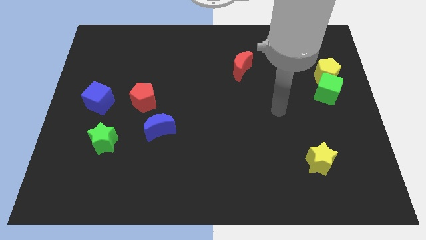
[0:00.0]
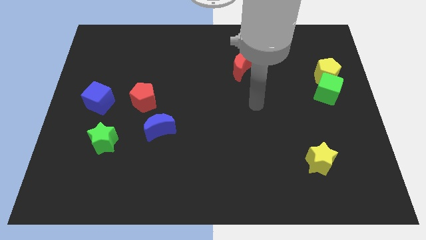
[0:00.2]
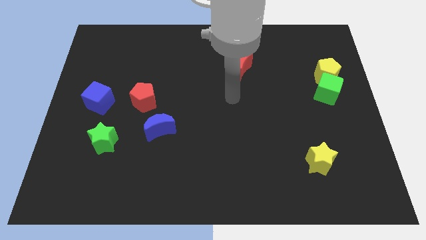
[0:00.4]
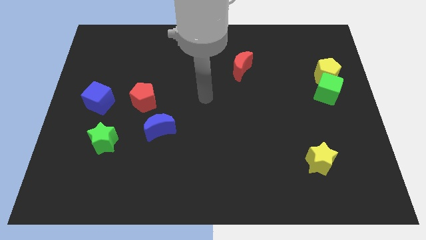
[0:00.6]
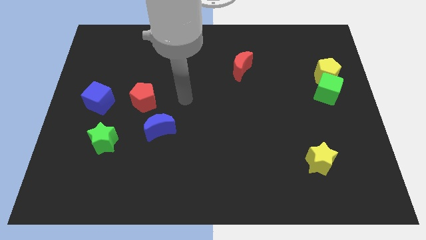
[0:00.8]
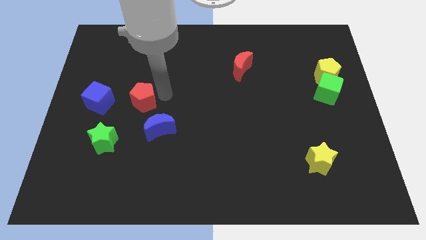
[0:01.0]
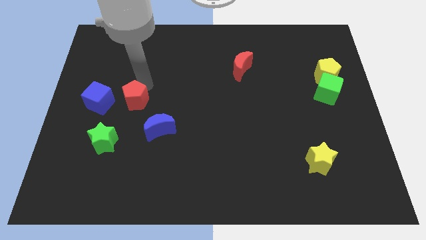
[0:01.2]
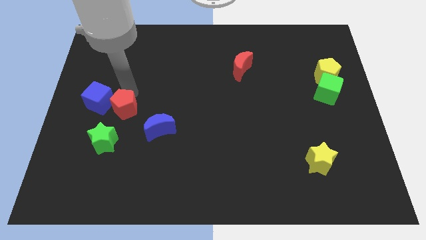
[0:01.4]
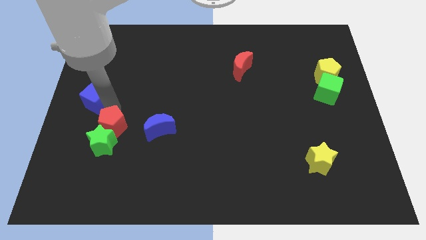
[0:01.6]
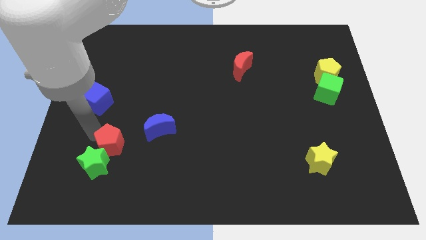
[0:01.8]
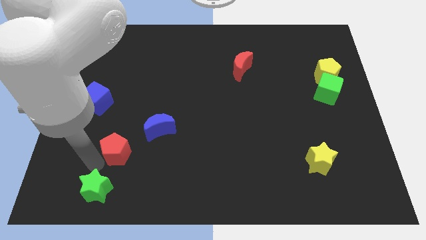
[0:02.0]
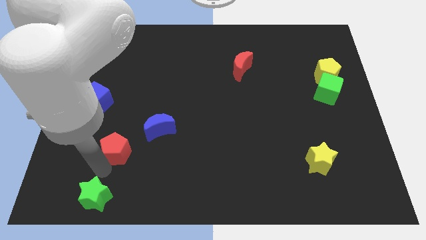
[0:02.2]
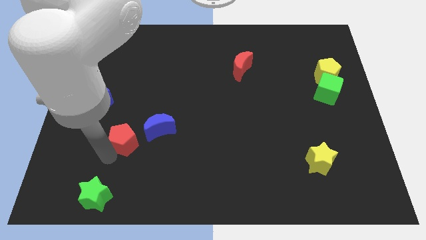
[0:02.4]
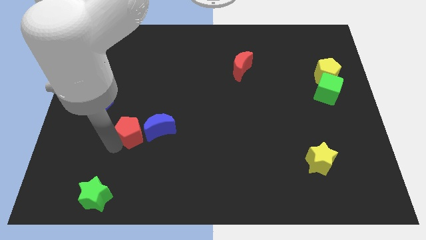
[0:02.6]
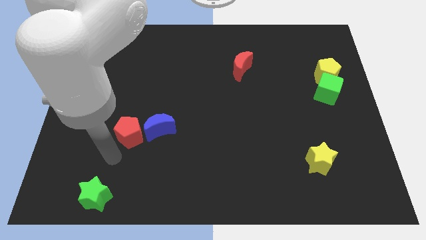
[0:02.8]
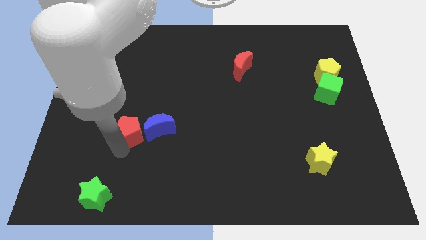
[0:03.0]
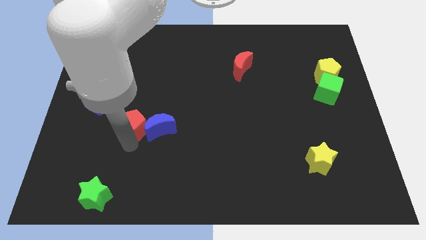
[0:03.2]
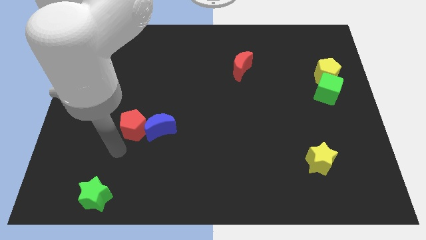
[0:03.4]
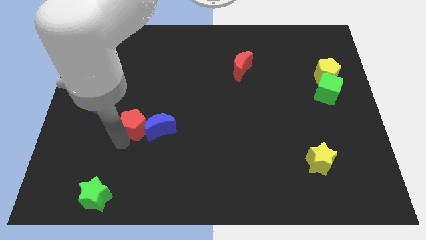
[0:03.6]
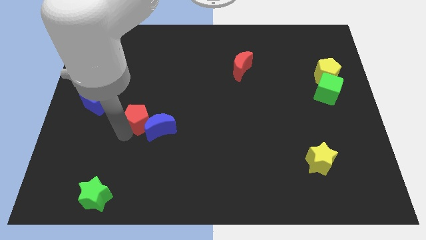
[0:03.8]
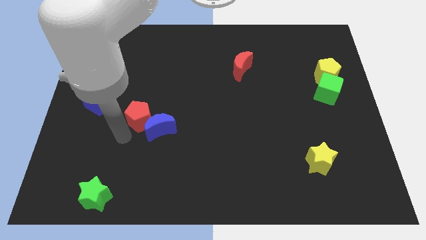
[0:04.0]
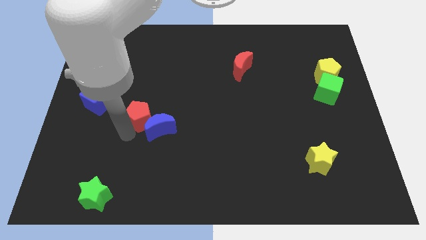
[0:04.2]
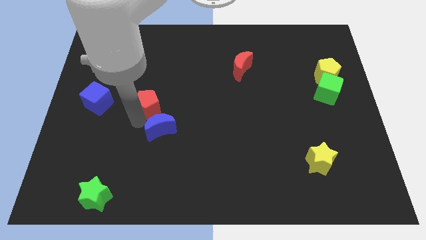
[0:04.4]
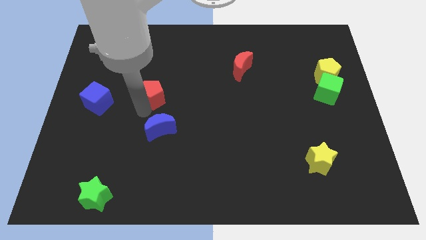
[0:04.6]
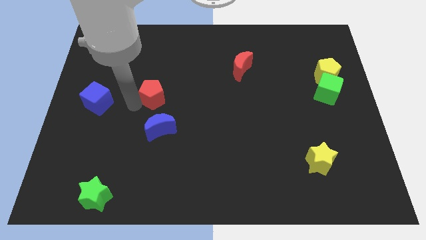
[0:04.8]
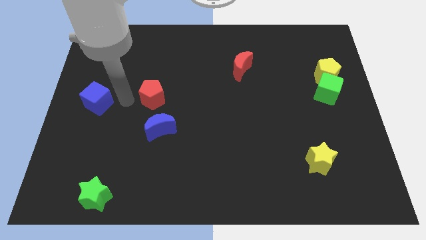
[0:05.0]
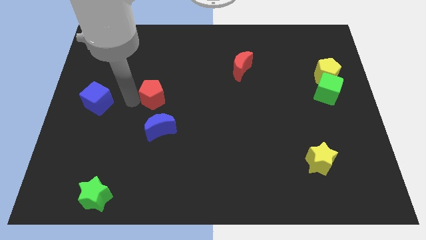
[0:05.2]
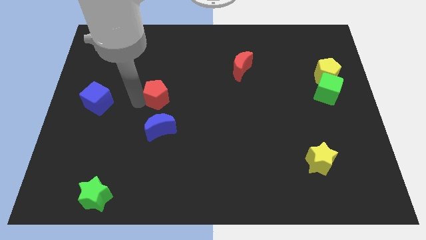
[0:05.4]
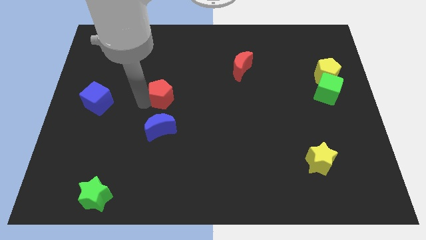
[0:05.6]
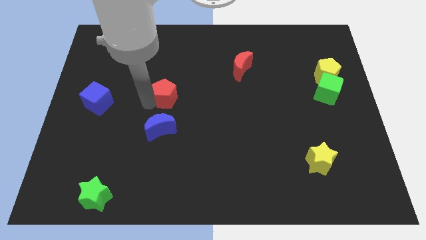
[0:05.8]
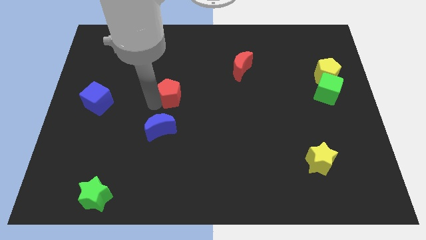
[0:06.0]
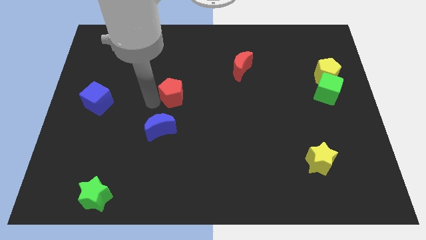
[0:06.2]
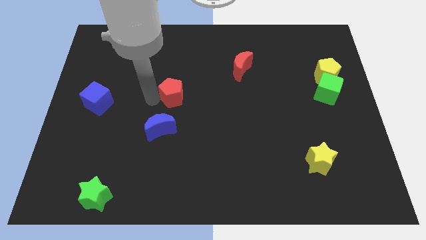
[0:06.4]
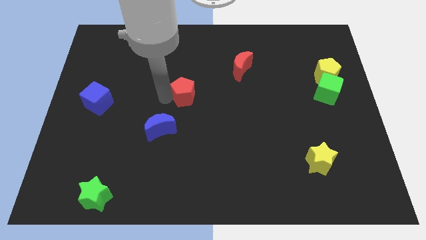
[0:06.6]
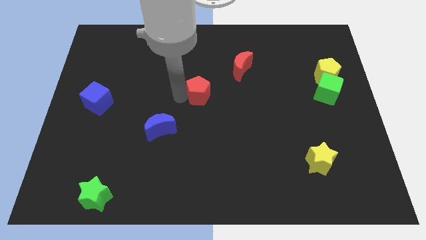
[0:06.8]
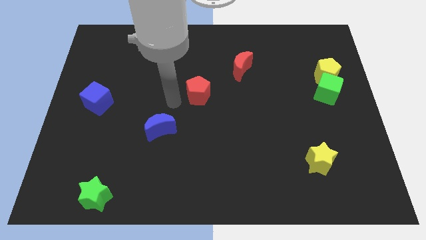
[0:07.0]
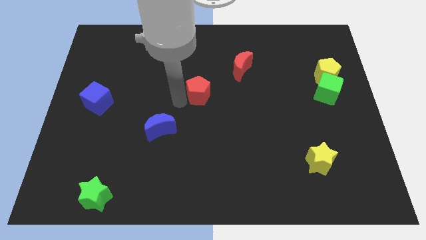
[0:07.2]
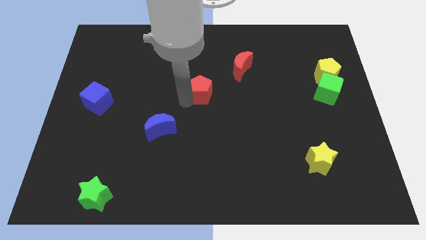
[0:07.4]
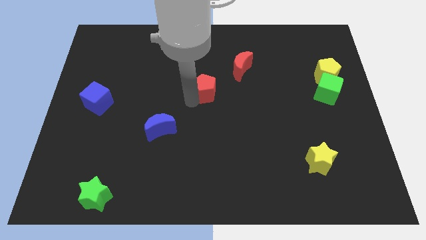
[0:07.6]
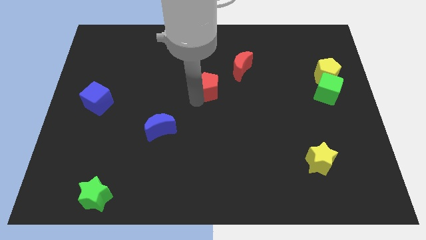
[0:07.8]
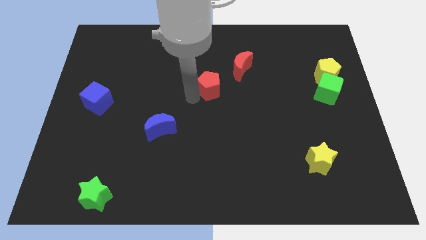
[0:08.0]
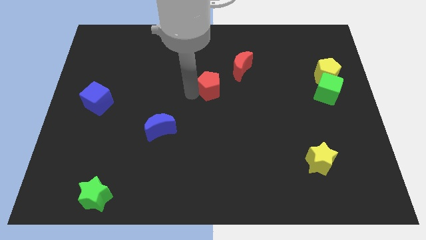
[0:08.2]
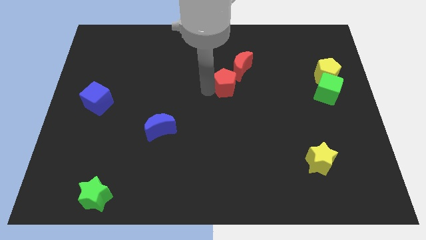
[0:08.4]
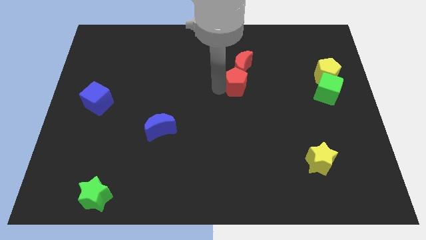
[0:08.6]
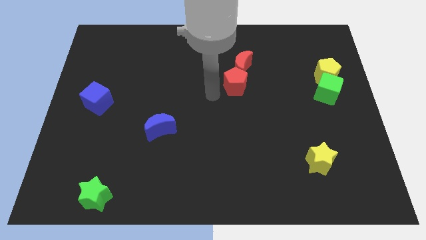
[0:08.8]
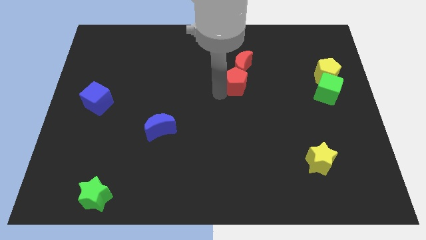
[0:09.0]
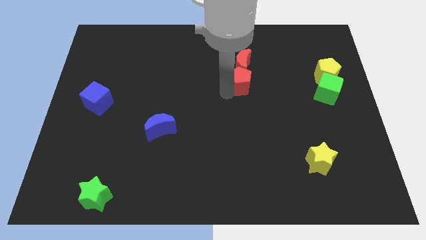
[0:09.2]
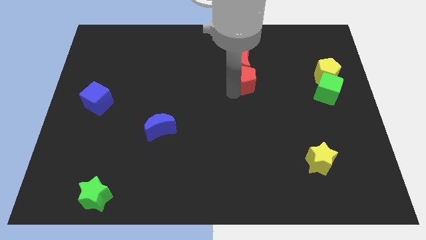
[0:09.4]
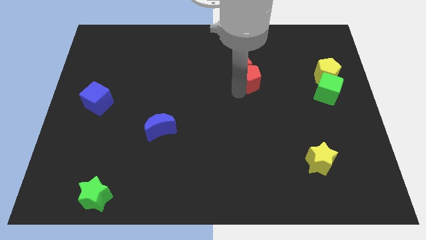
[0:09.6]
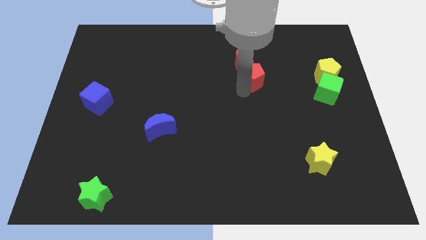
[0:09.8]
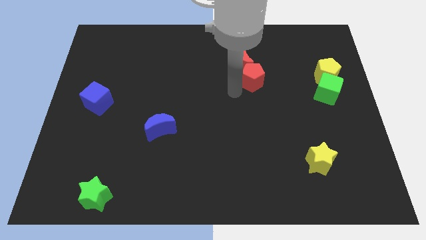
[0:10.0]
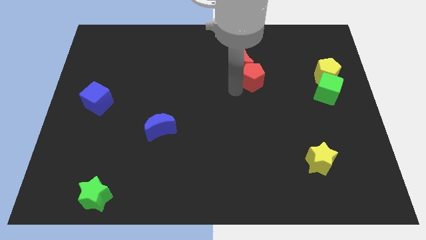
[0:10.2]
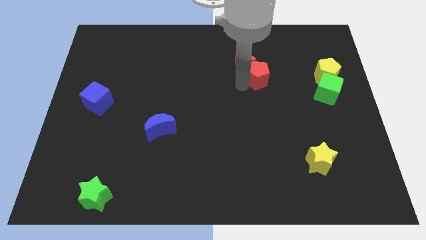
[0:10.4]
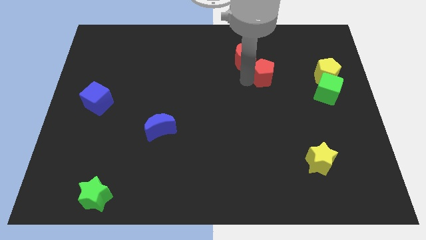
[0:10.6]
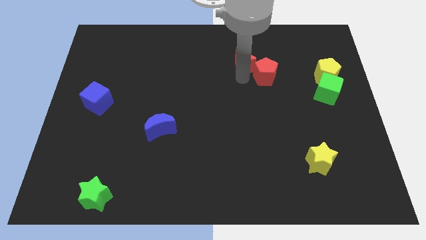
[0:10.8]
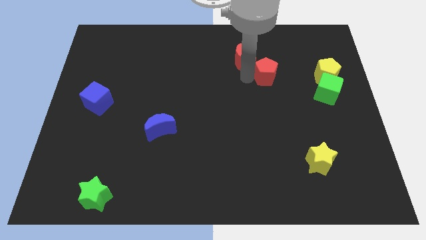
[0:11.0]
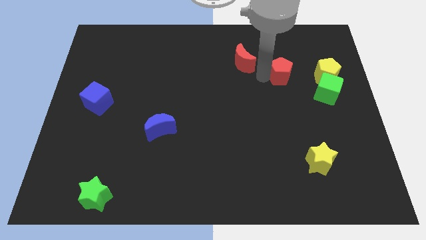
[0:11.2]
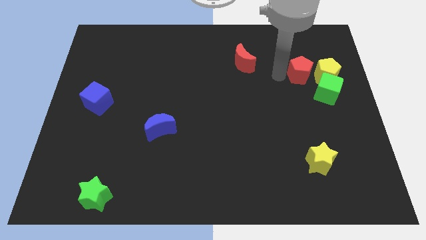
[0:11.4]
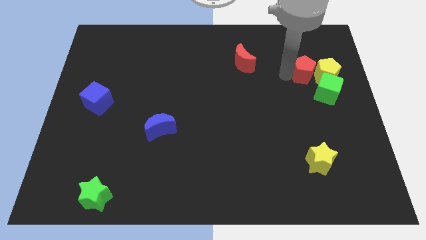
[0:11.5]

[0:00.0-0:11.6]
push the red pentagon towards the yellow pentagon
